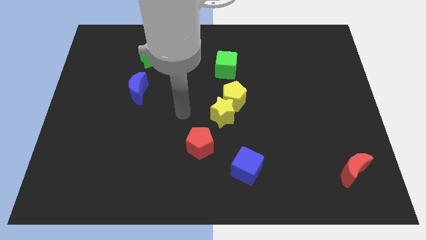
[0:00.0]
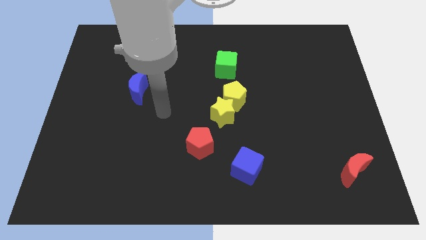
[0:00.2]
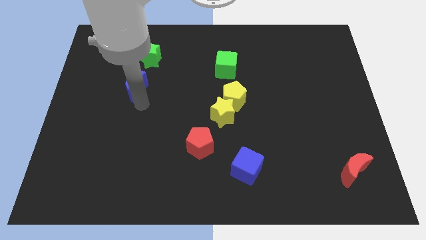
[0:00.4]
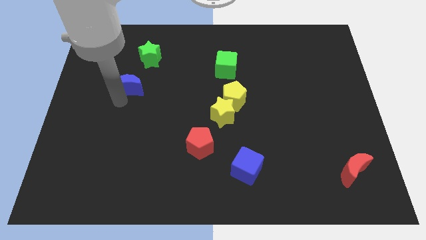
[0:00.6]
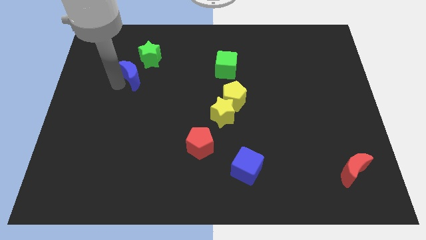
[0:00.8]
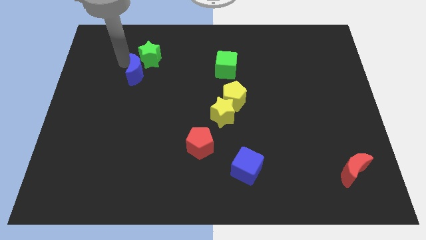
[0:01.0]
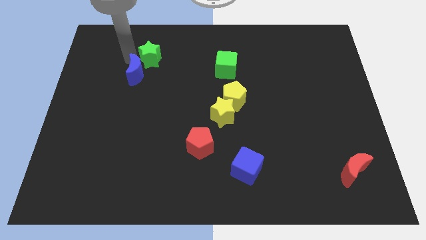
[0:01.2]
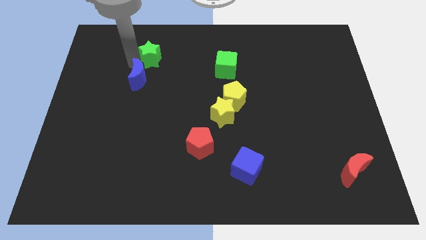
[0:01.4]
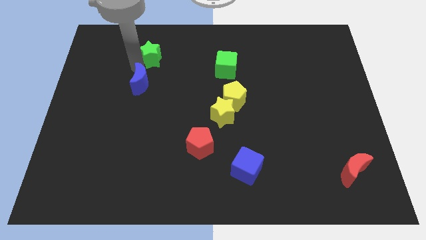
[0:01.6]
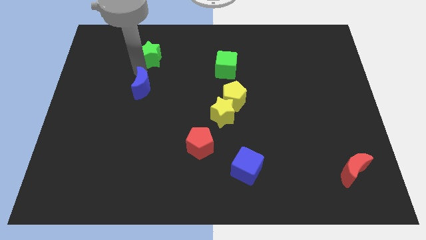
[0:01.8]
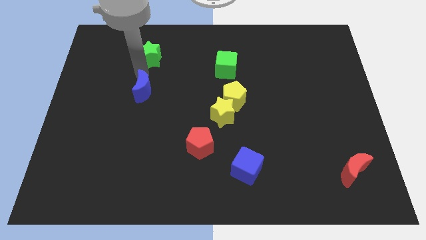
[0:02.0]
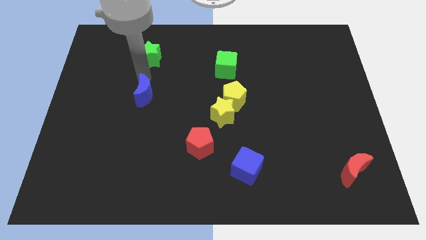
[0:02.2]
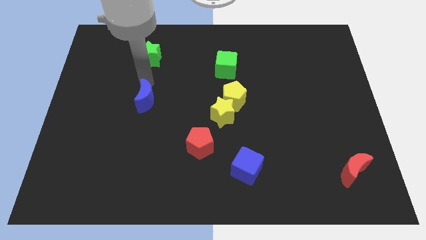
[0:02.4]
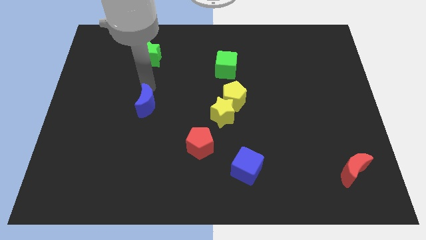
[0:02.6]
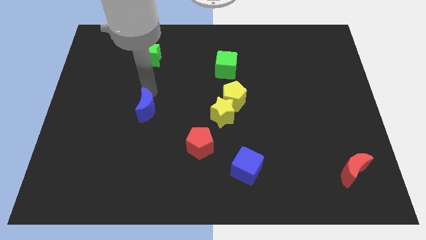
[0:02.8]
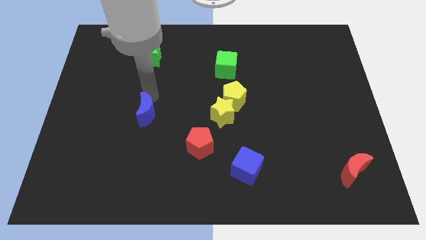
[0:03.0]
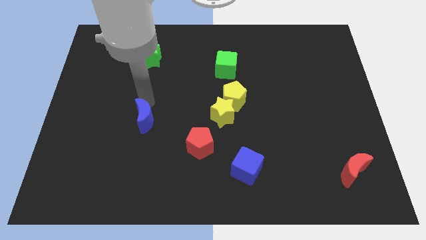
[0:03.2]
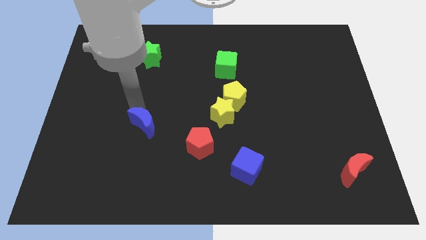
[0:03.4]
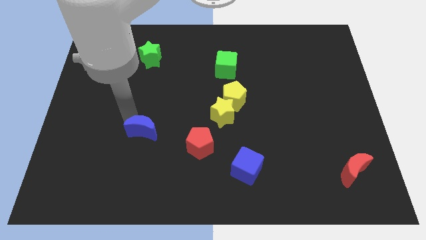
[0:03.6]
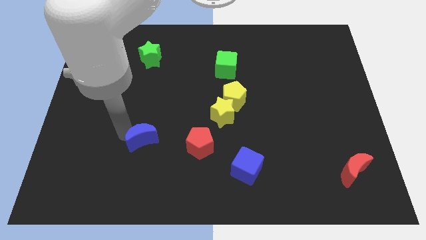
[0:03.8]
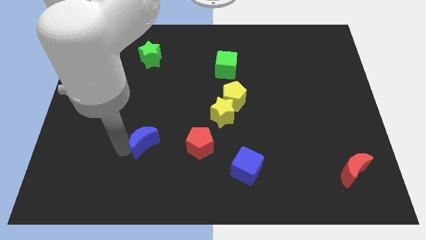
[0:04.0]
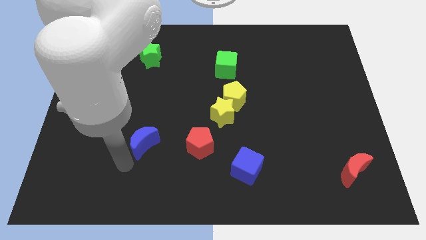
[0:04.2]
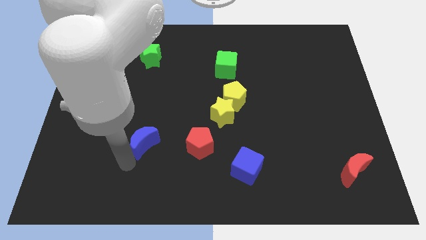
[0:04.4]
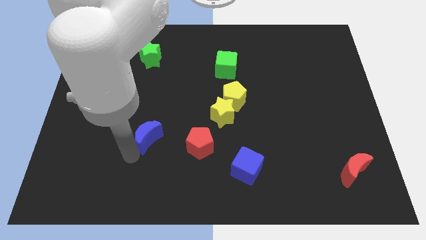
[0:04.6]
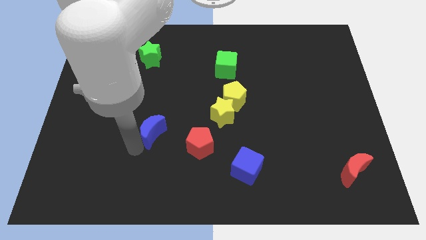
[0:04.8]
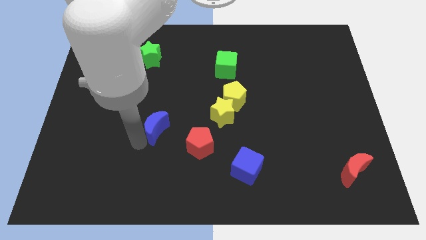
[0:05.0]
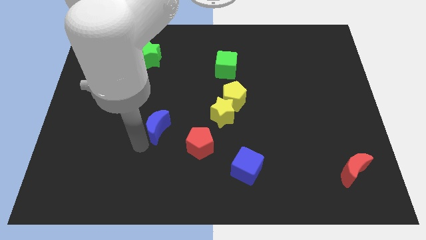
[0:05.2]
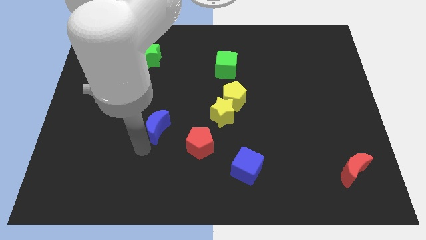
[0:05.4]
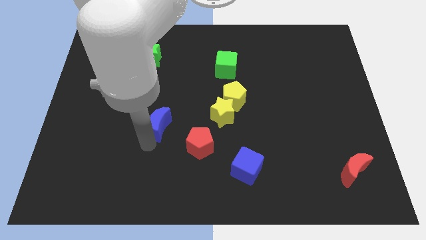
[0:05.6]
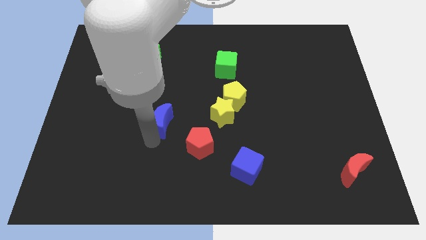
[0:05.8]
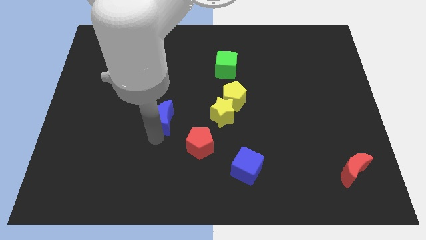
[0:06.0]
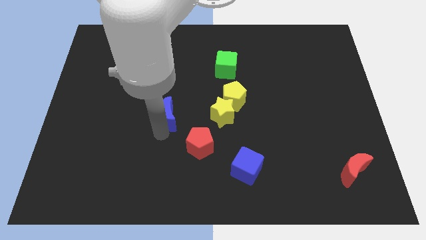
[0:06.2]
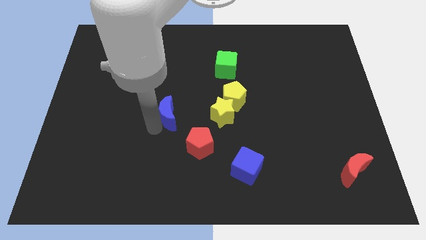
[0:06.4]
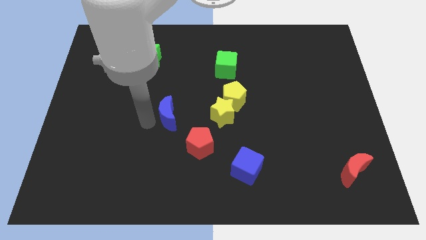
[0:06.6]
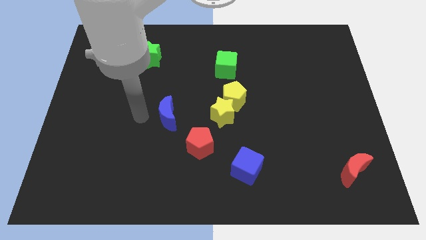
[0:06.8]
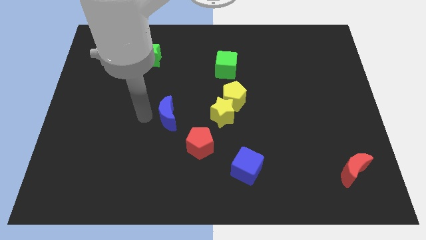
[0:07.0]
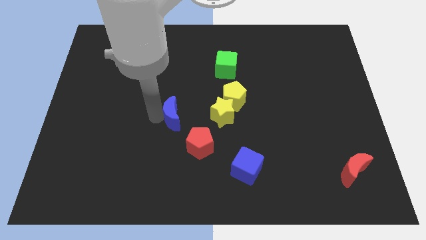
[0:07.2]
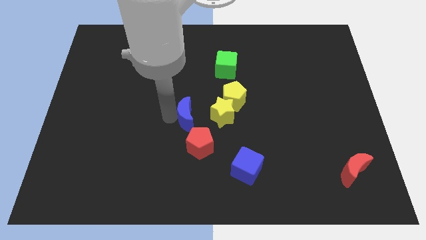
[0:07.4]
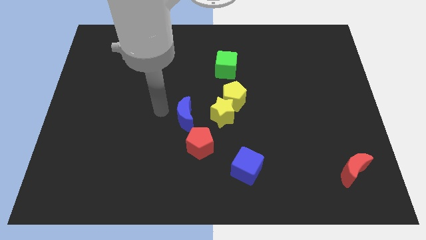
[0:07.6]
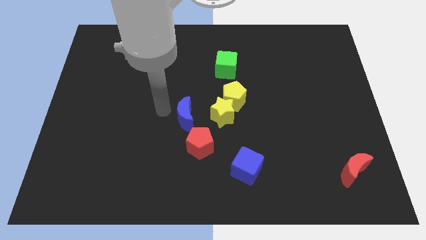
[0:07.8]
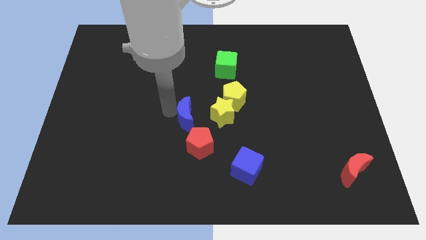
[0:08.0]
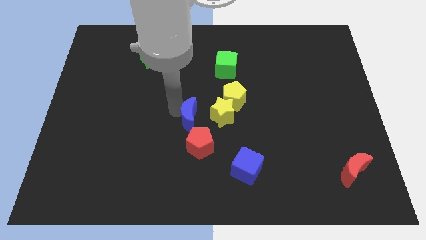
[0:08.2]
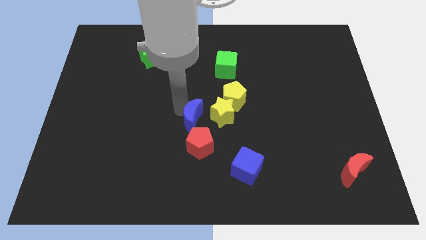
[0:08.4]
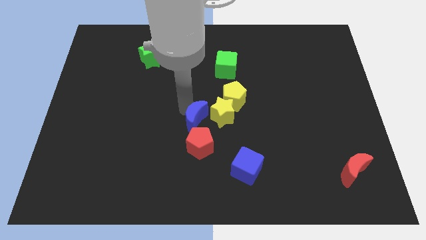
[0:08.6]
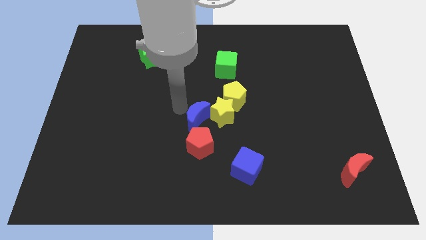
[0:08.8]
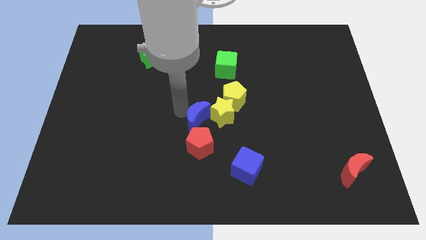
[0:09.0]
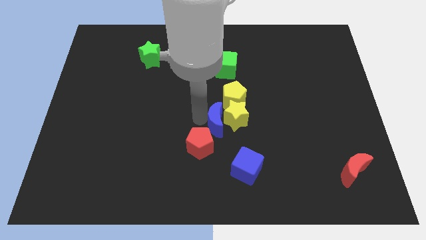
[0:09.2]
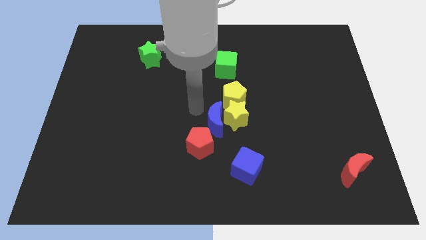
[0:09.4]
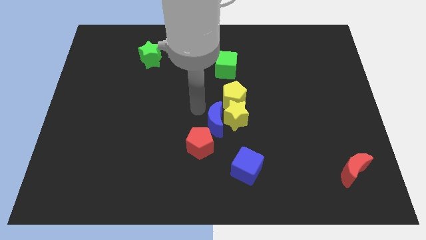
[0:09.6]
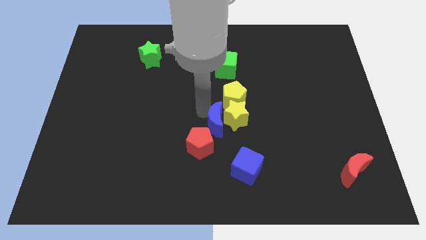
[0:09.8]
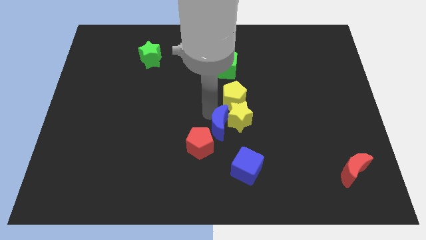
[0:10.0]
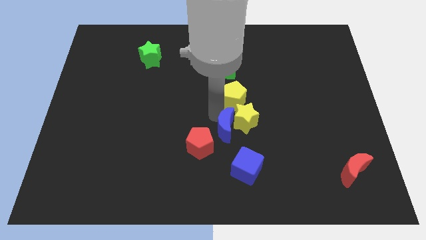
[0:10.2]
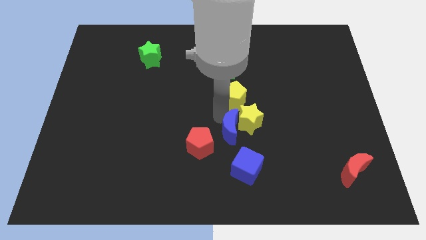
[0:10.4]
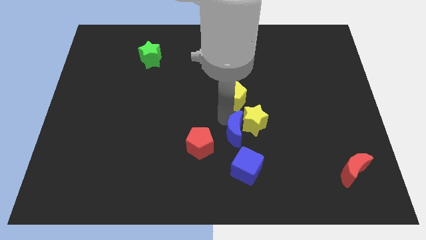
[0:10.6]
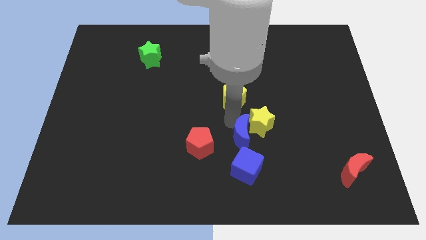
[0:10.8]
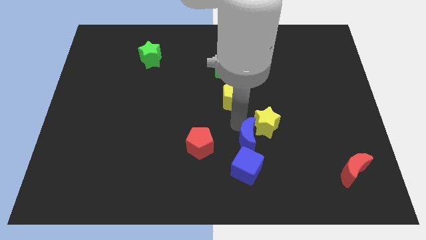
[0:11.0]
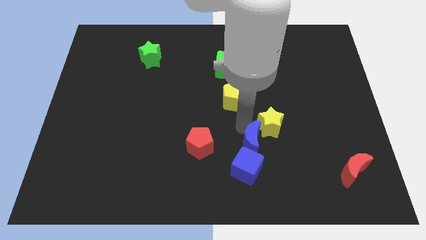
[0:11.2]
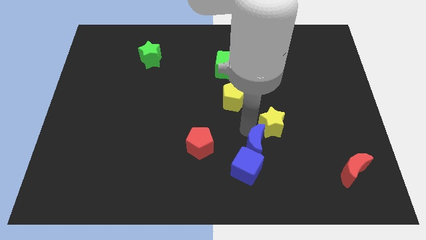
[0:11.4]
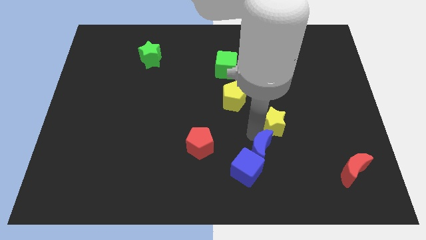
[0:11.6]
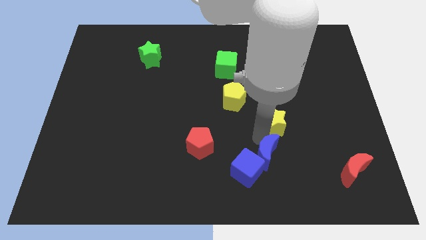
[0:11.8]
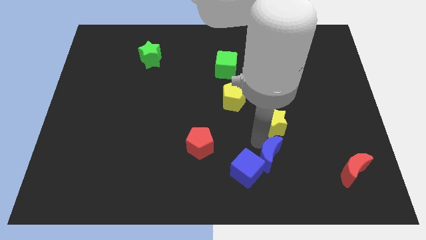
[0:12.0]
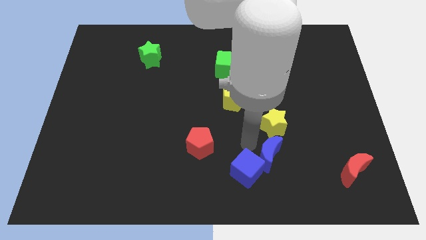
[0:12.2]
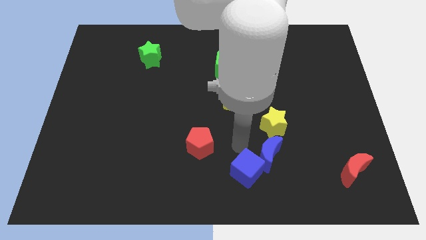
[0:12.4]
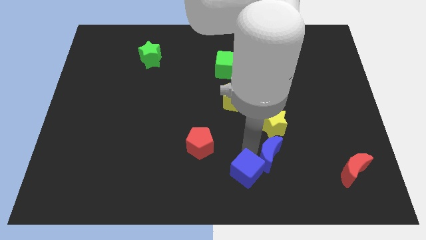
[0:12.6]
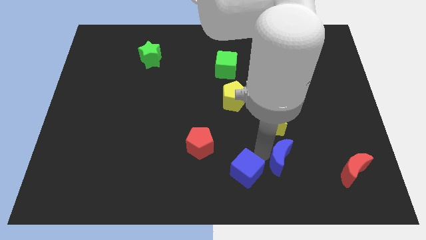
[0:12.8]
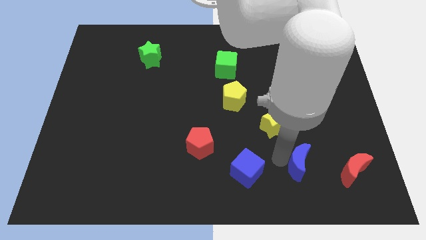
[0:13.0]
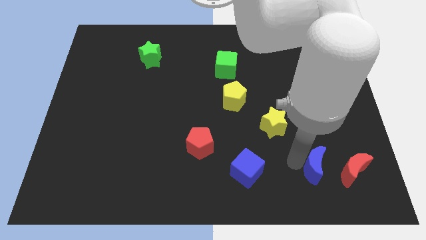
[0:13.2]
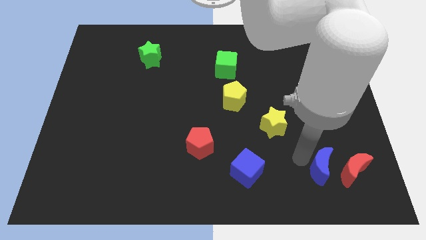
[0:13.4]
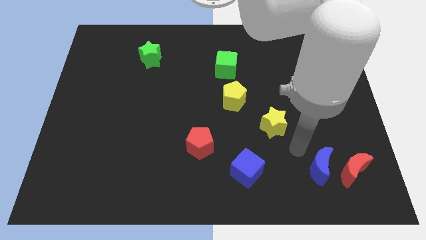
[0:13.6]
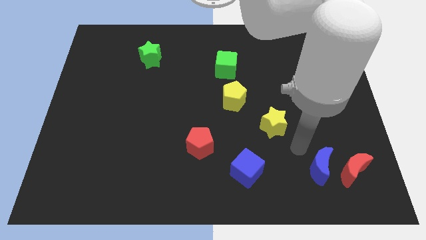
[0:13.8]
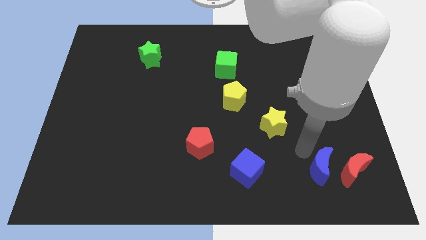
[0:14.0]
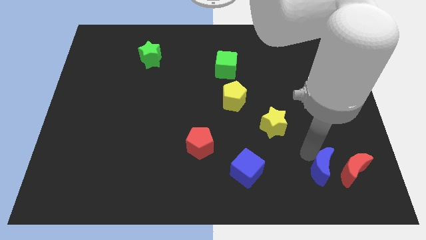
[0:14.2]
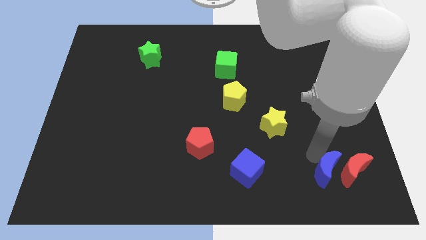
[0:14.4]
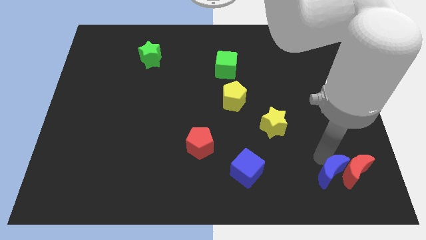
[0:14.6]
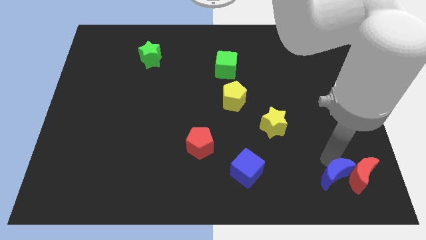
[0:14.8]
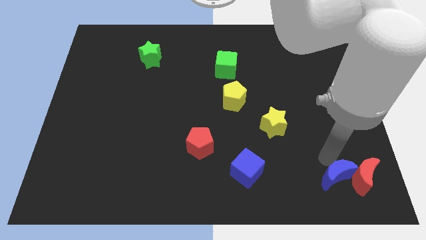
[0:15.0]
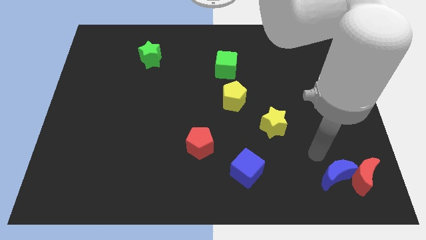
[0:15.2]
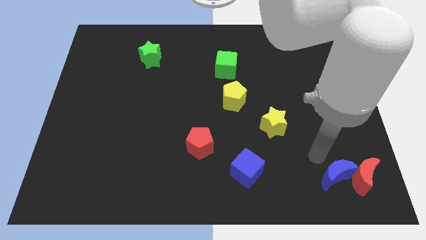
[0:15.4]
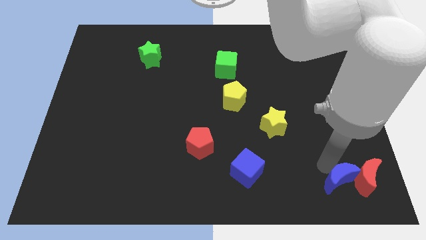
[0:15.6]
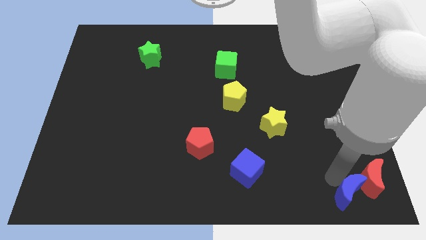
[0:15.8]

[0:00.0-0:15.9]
push the blue moon to the bottom right
